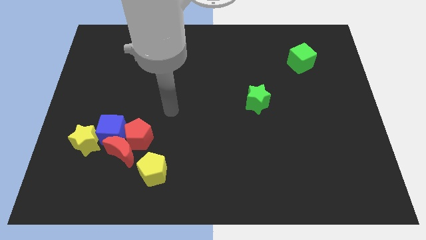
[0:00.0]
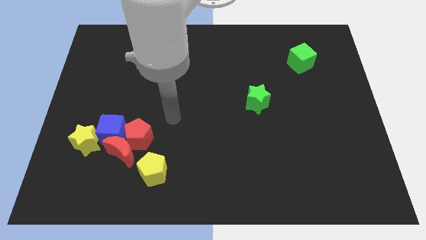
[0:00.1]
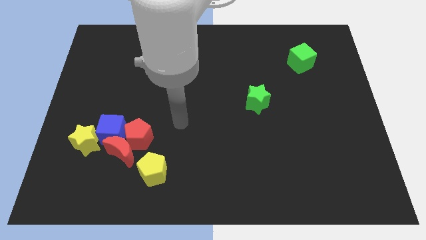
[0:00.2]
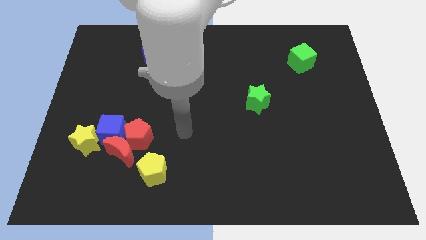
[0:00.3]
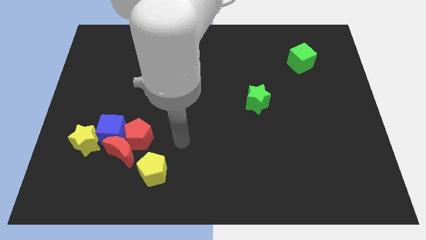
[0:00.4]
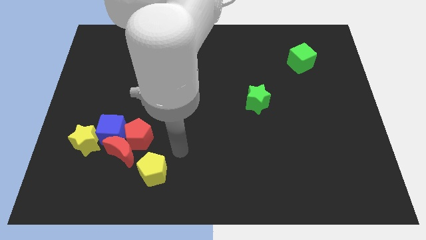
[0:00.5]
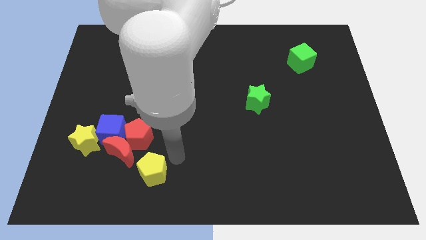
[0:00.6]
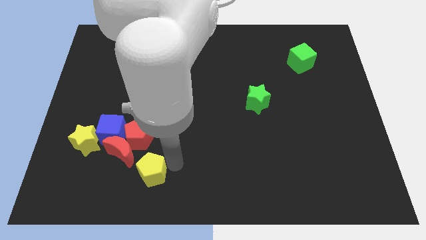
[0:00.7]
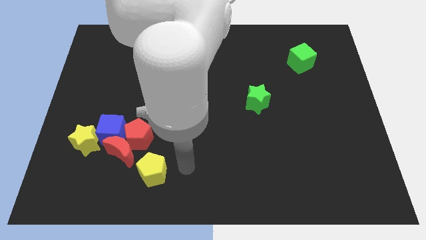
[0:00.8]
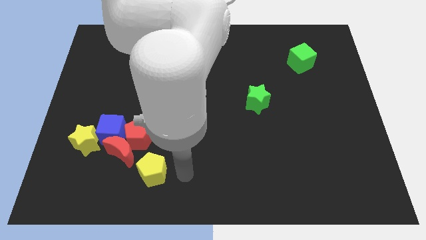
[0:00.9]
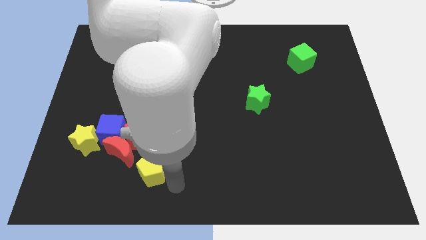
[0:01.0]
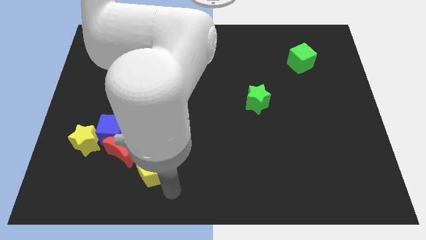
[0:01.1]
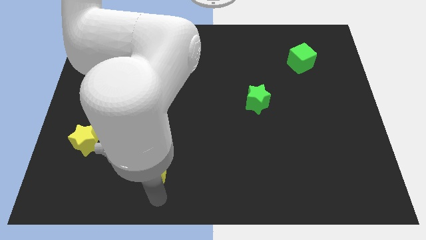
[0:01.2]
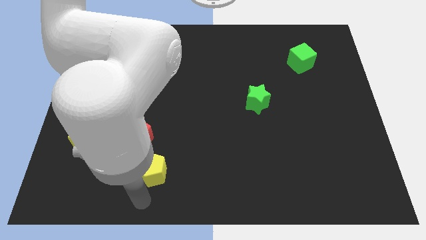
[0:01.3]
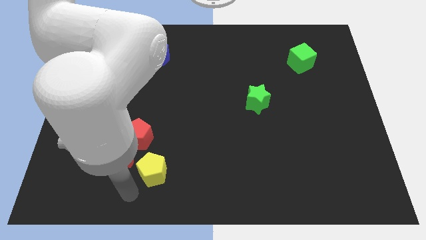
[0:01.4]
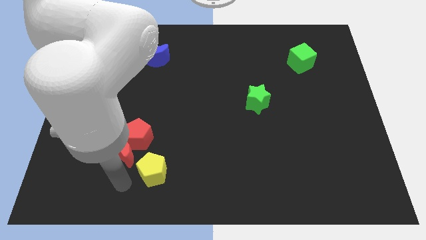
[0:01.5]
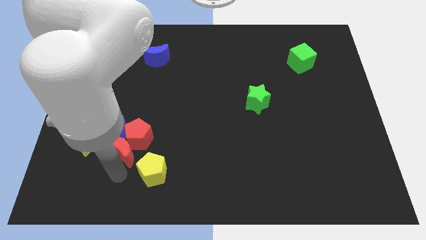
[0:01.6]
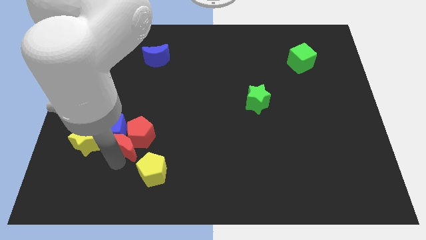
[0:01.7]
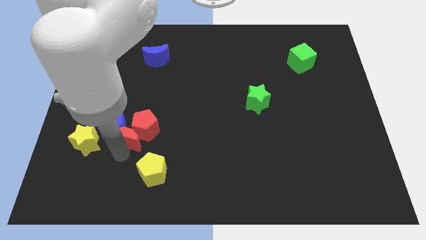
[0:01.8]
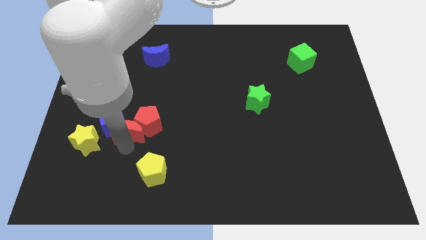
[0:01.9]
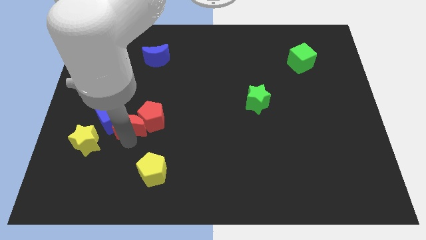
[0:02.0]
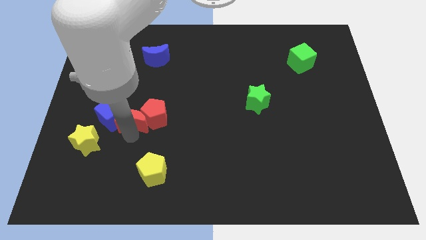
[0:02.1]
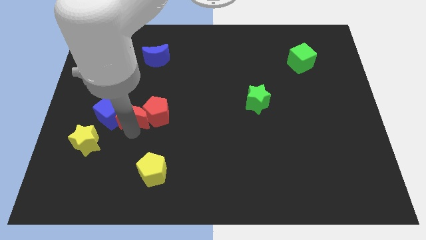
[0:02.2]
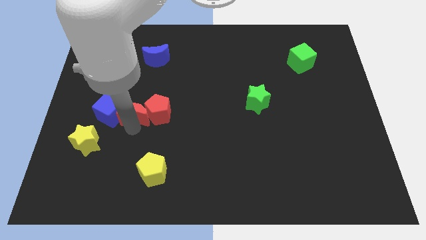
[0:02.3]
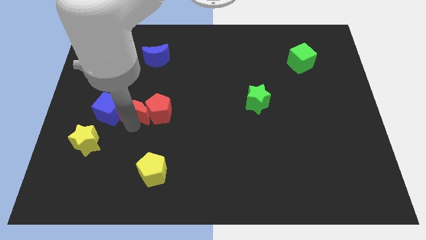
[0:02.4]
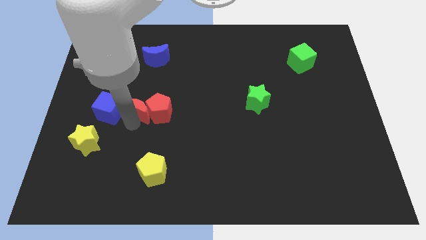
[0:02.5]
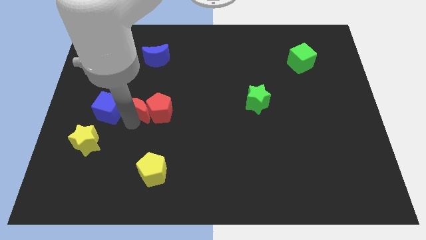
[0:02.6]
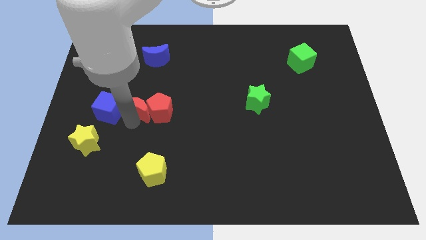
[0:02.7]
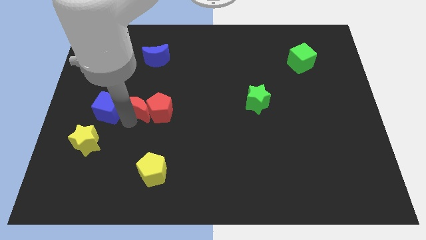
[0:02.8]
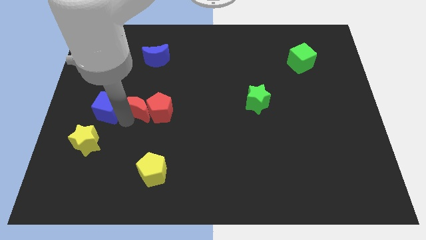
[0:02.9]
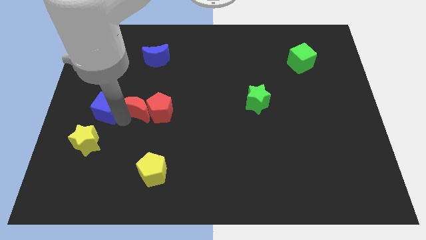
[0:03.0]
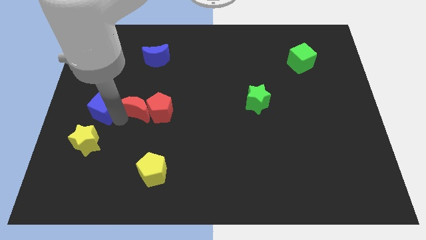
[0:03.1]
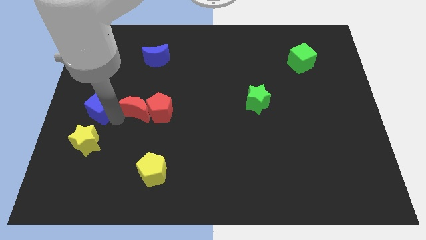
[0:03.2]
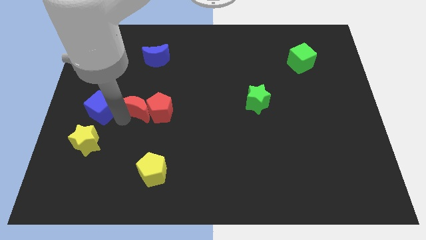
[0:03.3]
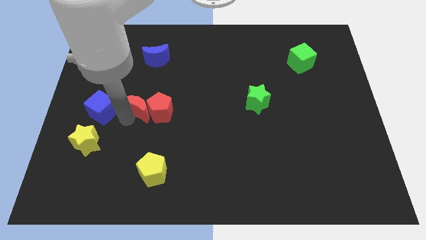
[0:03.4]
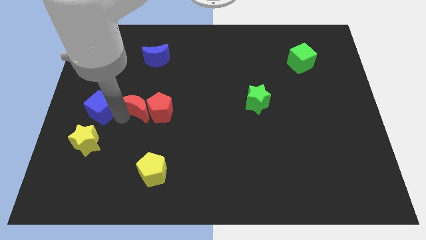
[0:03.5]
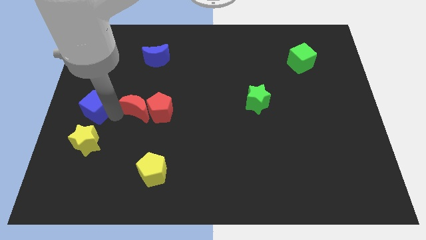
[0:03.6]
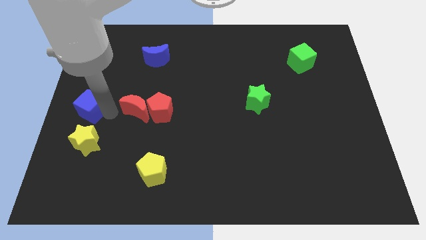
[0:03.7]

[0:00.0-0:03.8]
pull the blue cube apart from the red moon, red pentagon, and yellow star

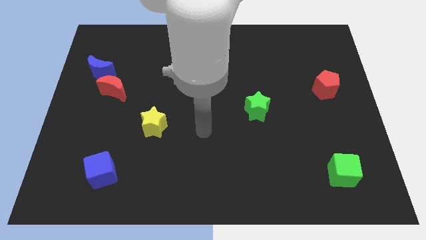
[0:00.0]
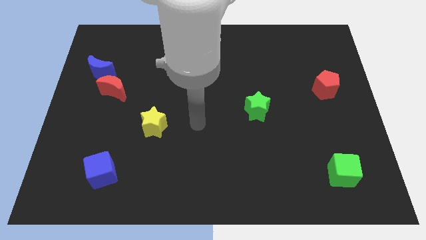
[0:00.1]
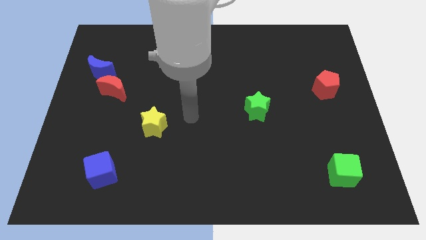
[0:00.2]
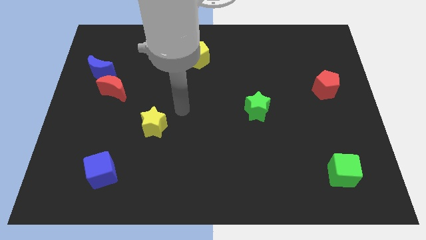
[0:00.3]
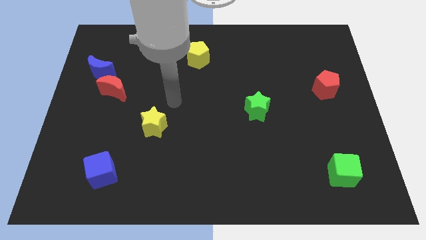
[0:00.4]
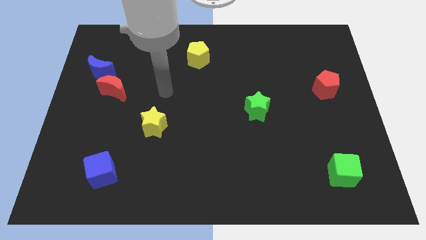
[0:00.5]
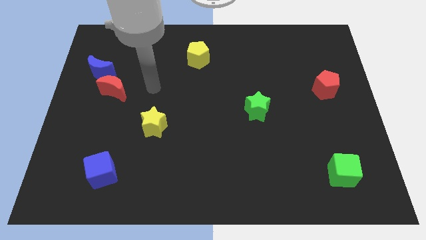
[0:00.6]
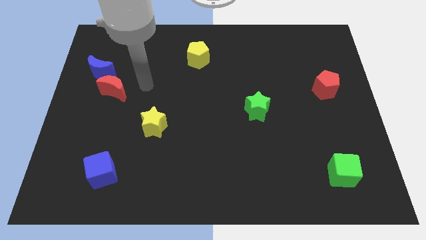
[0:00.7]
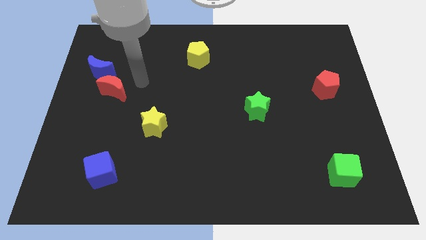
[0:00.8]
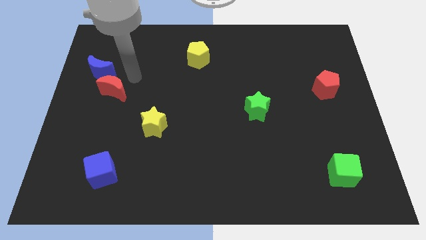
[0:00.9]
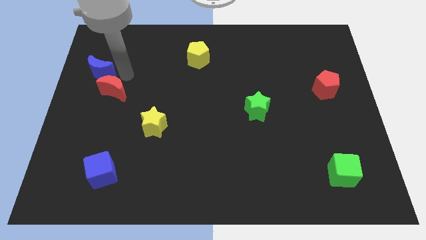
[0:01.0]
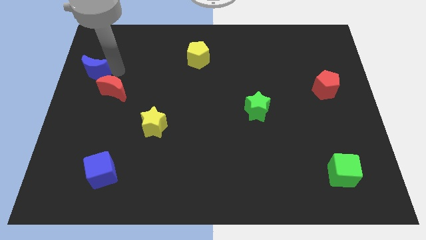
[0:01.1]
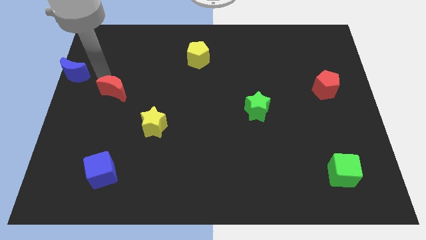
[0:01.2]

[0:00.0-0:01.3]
pull the red moon apart from the blue moon

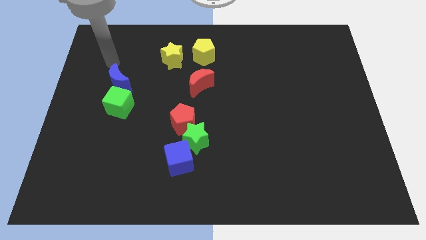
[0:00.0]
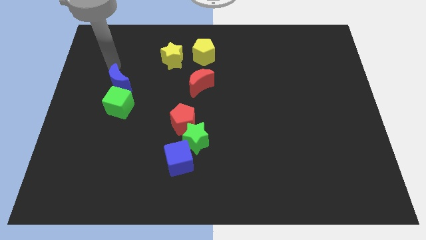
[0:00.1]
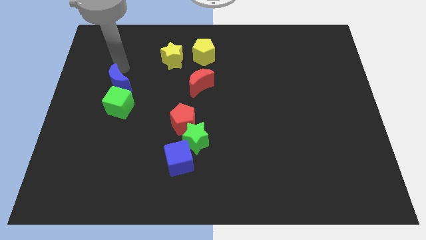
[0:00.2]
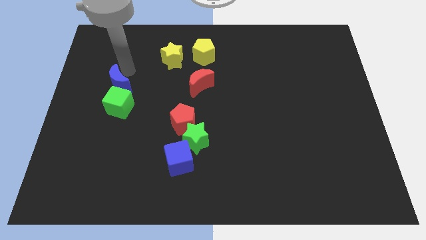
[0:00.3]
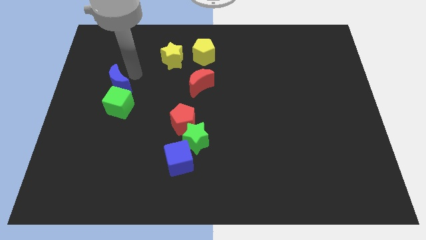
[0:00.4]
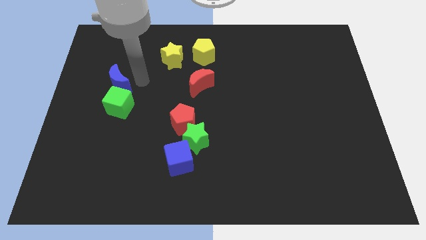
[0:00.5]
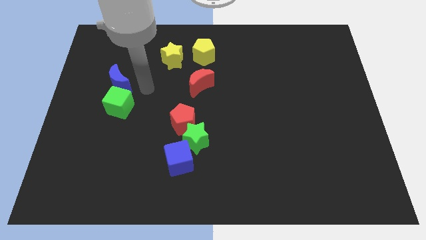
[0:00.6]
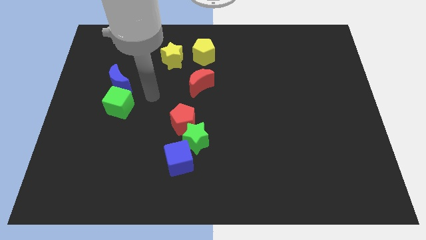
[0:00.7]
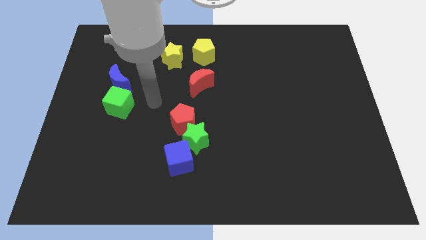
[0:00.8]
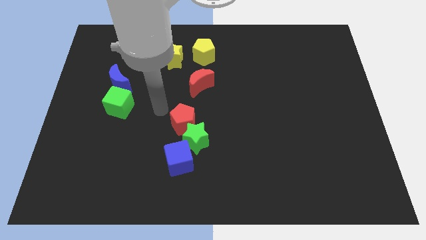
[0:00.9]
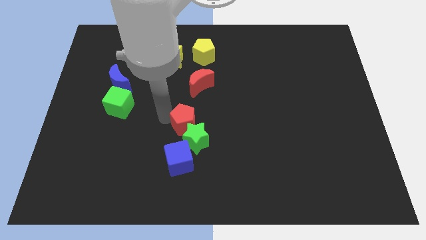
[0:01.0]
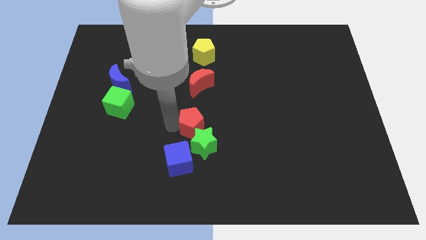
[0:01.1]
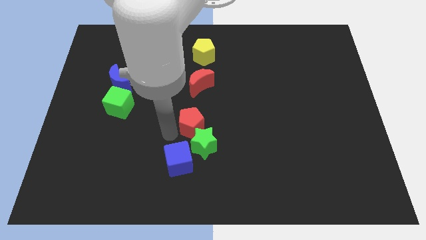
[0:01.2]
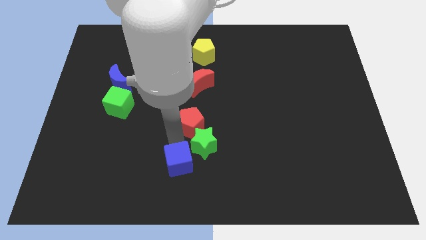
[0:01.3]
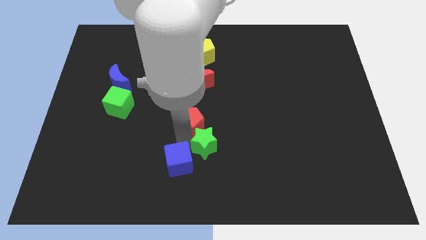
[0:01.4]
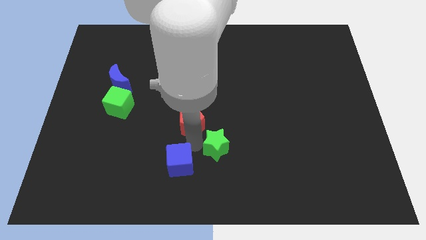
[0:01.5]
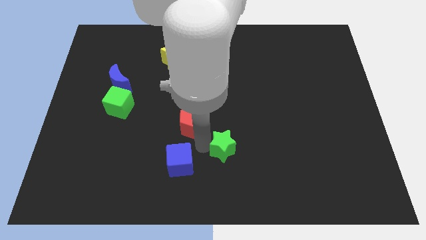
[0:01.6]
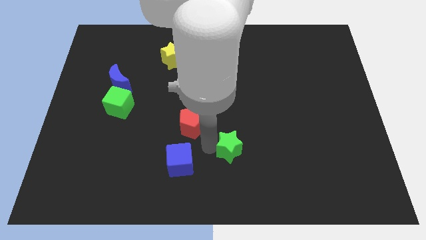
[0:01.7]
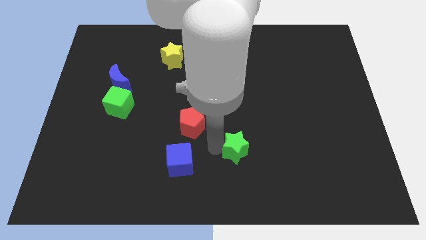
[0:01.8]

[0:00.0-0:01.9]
separate the green star from the red pentagon and blue cube

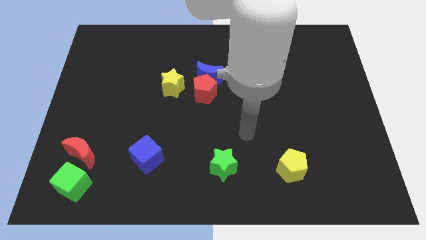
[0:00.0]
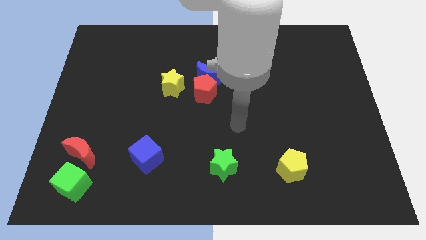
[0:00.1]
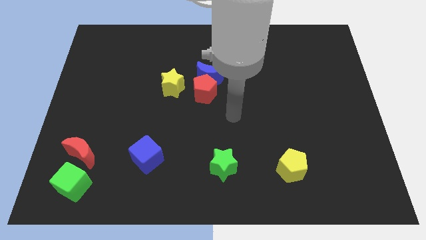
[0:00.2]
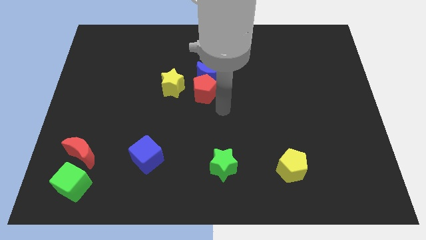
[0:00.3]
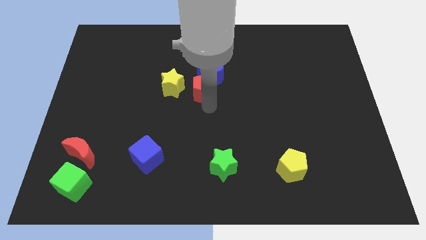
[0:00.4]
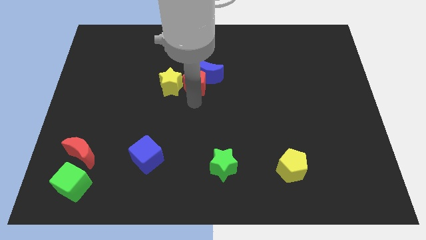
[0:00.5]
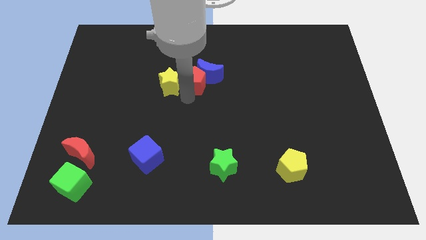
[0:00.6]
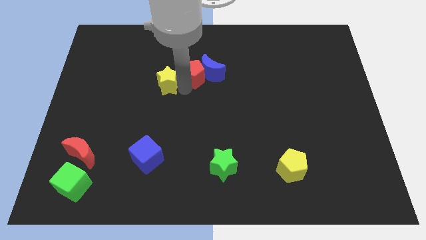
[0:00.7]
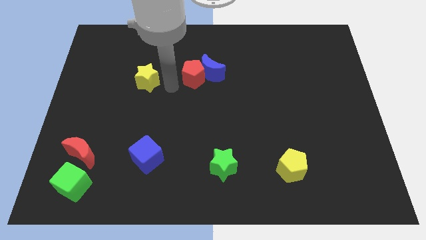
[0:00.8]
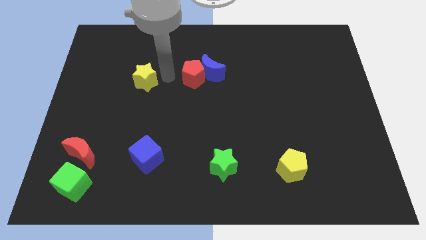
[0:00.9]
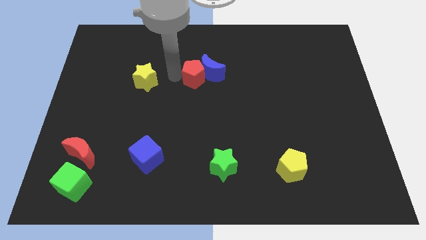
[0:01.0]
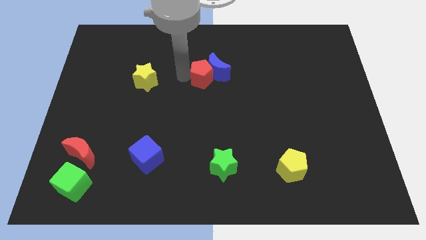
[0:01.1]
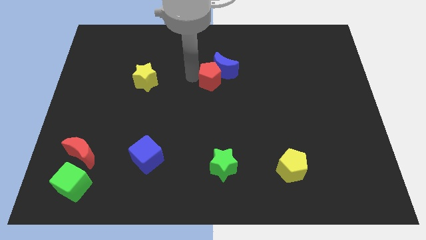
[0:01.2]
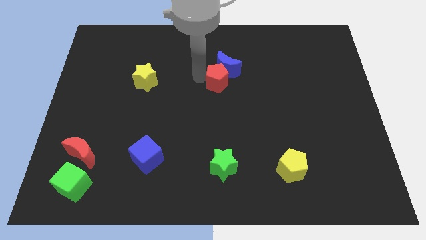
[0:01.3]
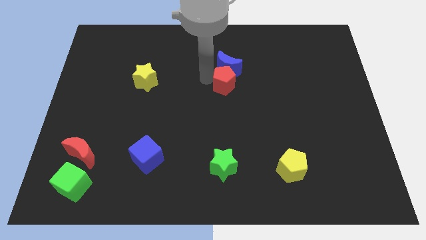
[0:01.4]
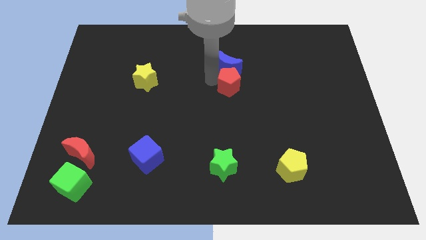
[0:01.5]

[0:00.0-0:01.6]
pull the red pentagon apart from the blue moon and yellow star

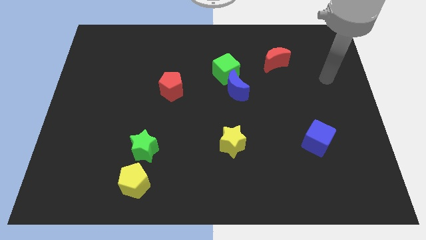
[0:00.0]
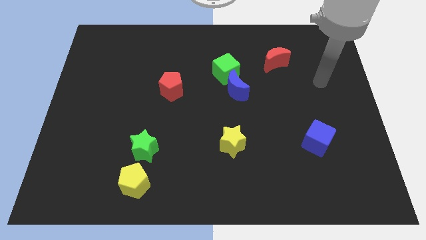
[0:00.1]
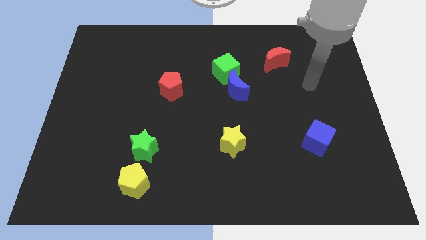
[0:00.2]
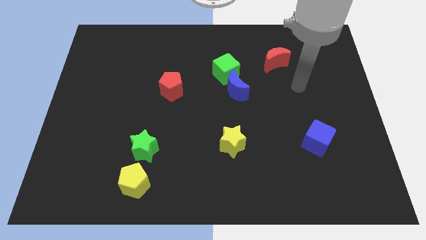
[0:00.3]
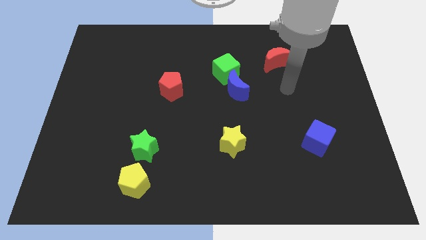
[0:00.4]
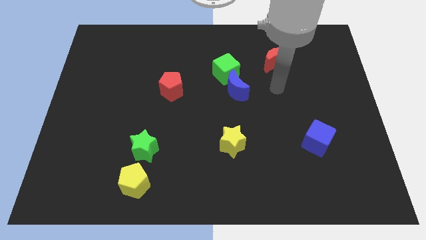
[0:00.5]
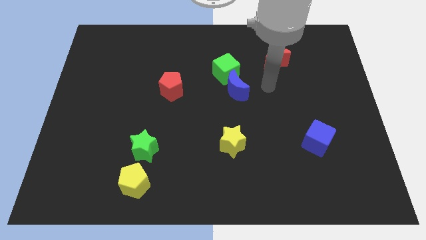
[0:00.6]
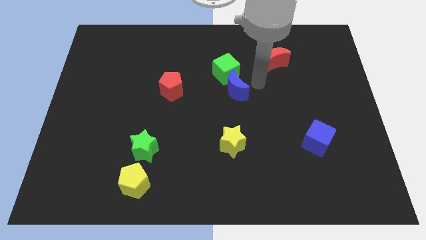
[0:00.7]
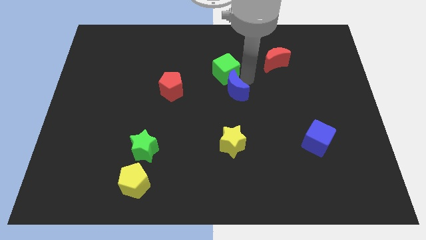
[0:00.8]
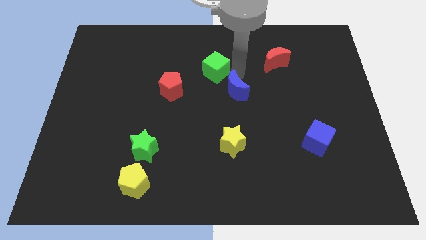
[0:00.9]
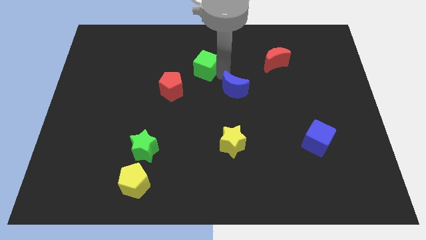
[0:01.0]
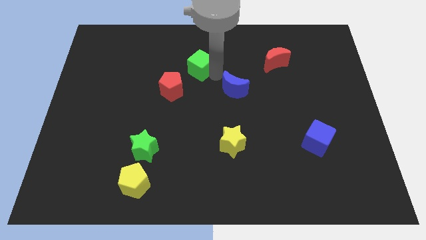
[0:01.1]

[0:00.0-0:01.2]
move the blue moon away from the green cube
